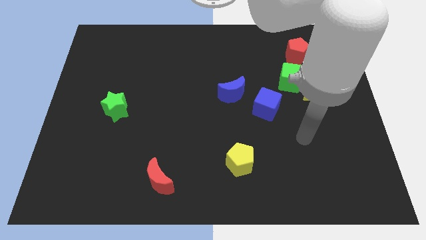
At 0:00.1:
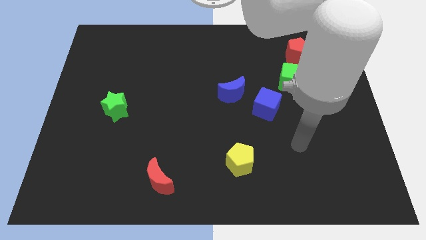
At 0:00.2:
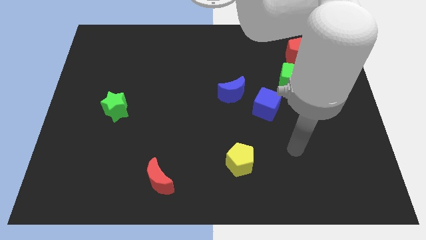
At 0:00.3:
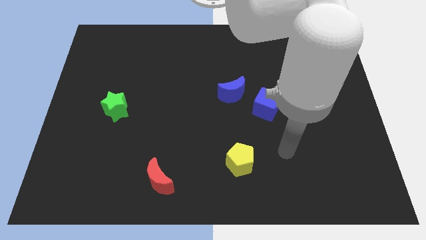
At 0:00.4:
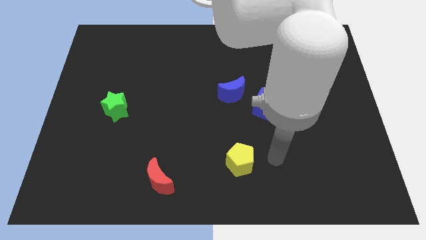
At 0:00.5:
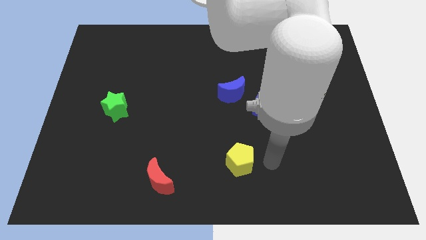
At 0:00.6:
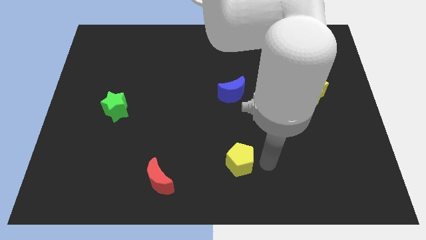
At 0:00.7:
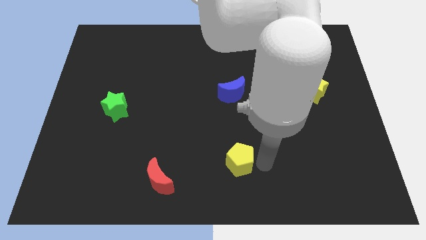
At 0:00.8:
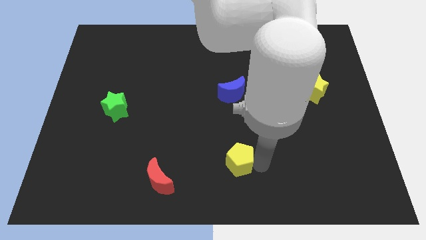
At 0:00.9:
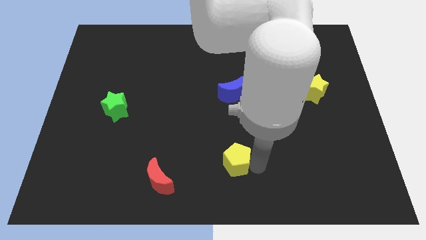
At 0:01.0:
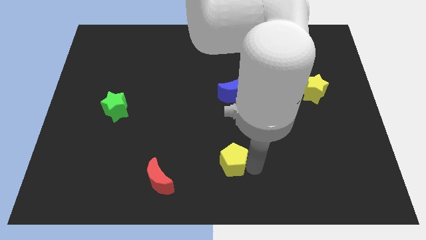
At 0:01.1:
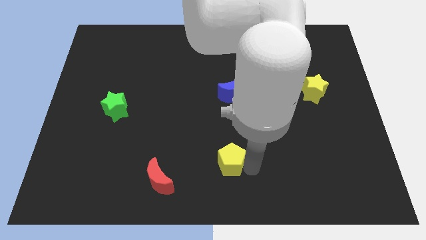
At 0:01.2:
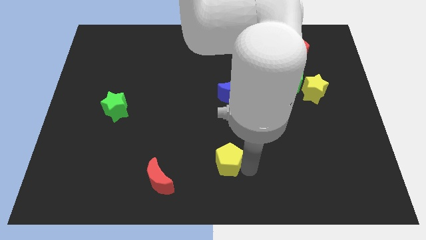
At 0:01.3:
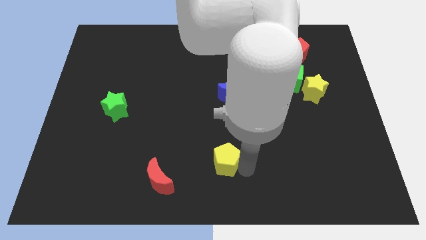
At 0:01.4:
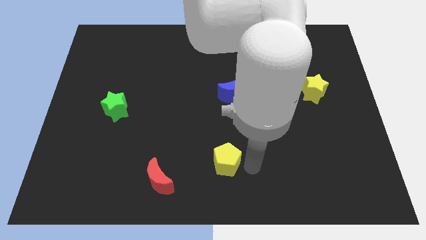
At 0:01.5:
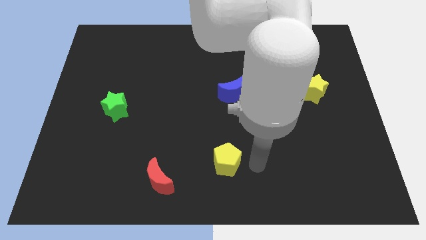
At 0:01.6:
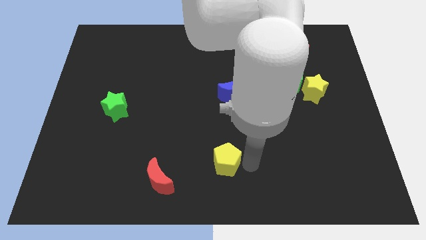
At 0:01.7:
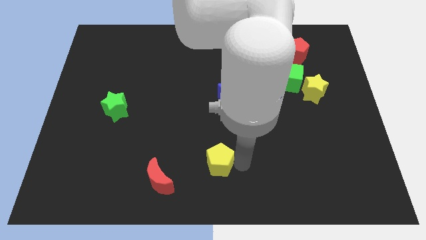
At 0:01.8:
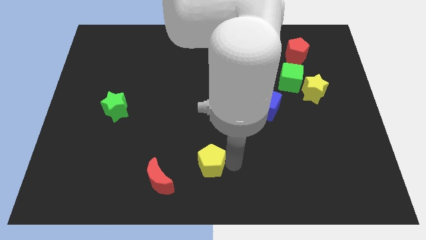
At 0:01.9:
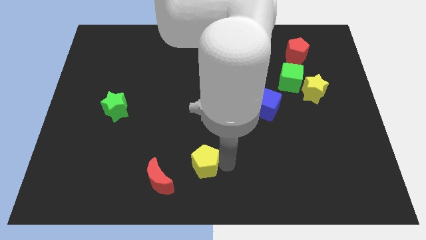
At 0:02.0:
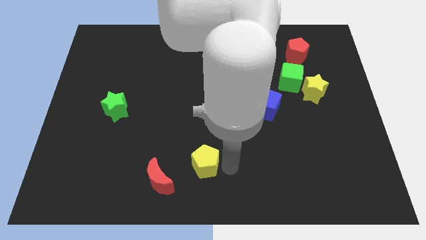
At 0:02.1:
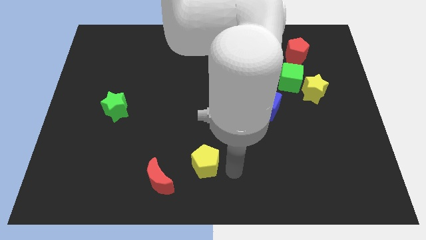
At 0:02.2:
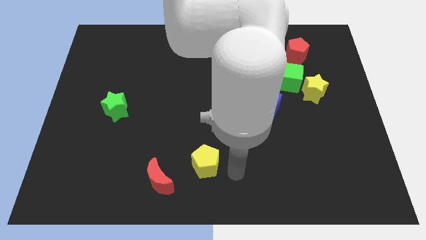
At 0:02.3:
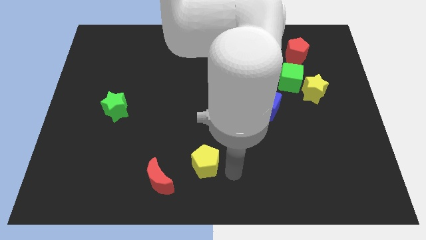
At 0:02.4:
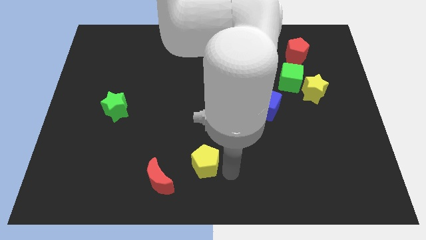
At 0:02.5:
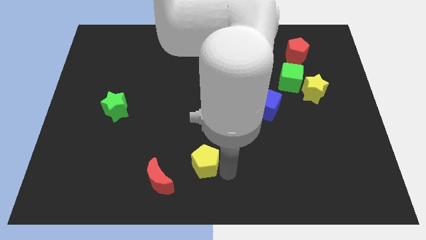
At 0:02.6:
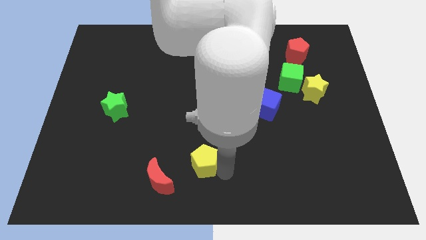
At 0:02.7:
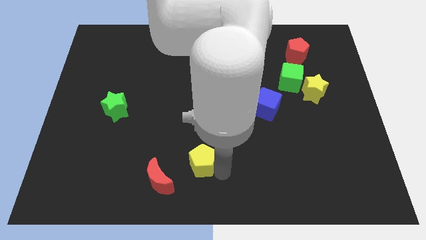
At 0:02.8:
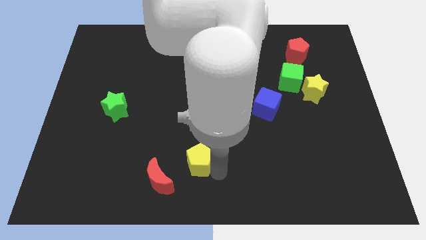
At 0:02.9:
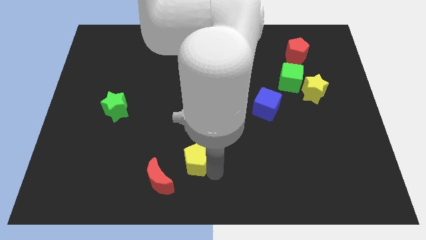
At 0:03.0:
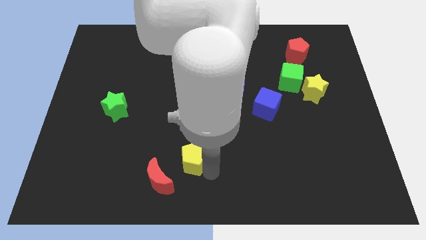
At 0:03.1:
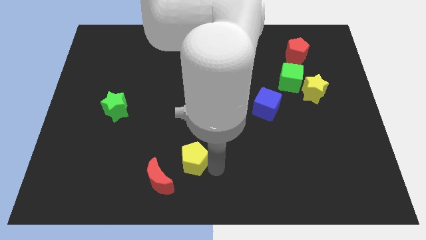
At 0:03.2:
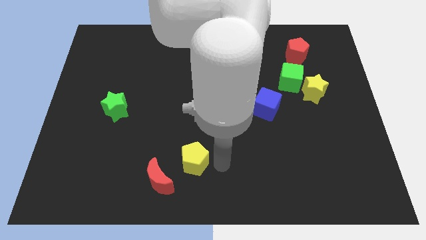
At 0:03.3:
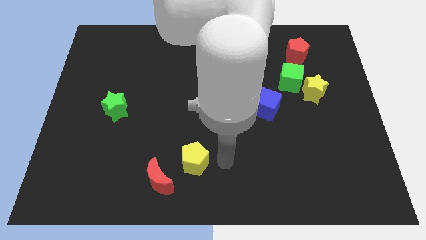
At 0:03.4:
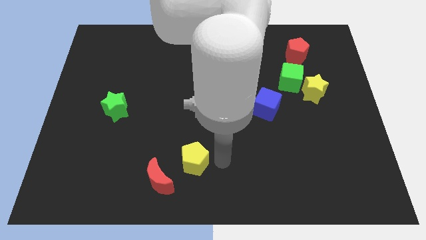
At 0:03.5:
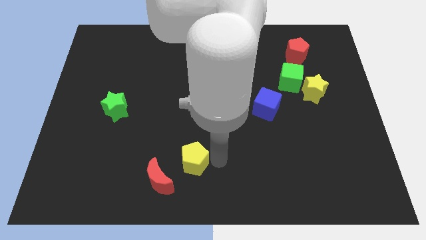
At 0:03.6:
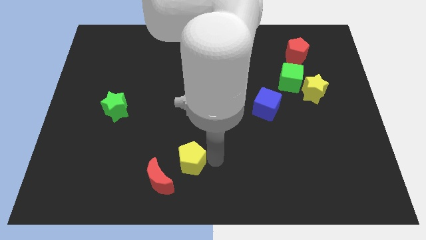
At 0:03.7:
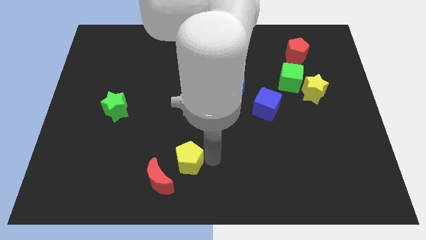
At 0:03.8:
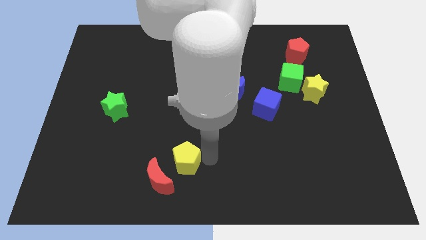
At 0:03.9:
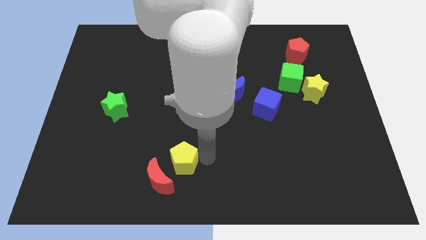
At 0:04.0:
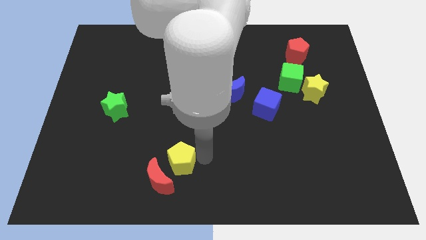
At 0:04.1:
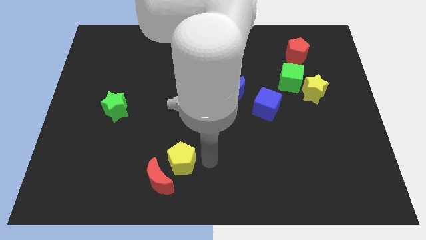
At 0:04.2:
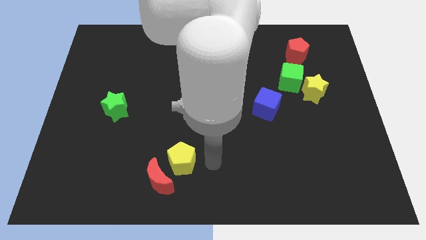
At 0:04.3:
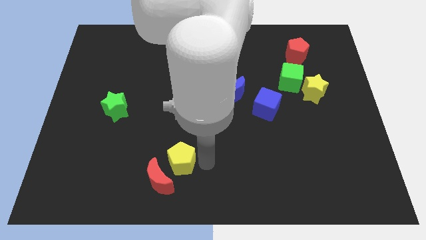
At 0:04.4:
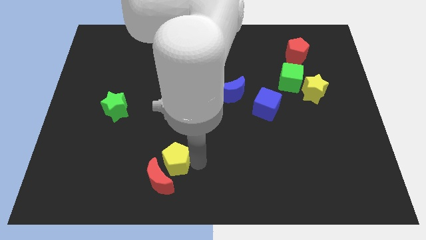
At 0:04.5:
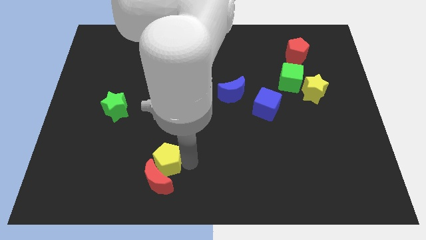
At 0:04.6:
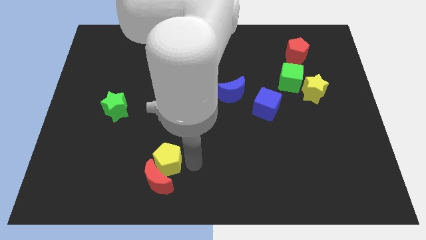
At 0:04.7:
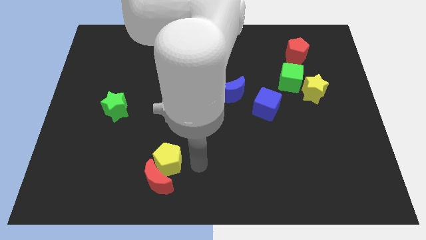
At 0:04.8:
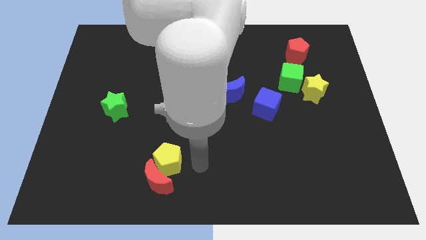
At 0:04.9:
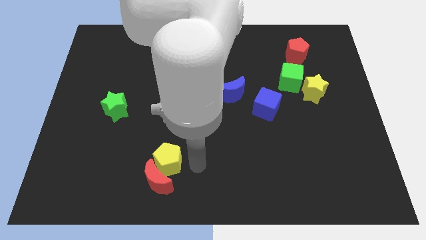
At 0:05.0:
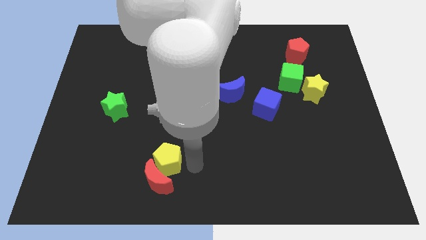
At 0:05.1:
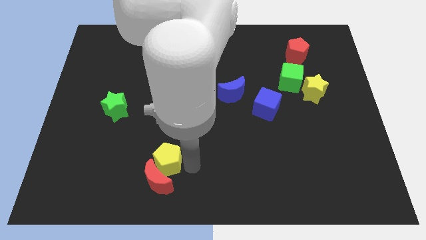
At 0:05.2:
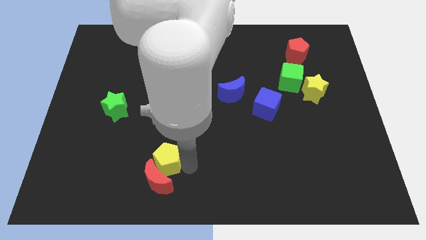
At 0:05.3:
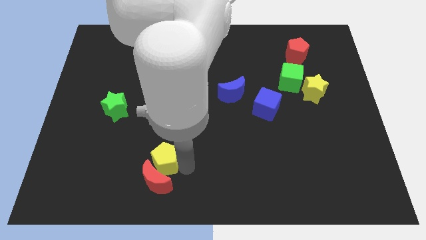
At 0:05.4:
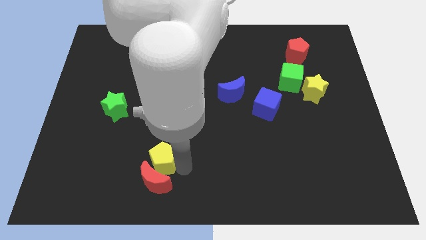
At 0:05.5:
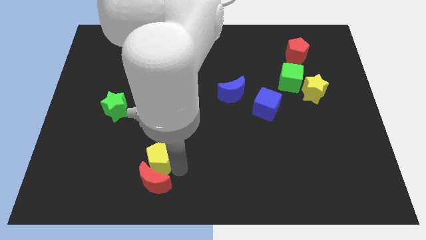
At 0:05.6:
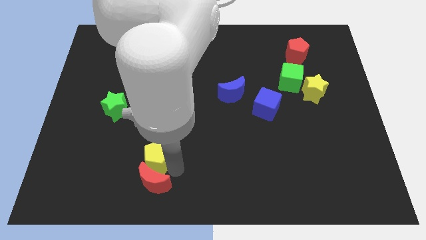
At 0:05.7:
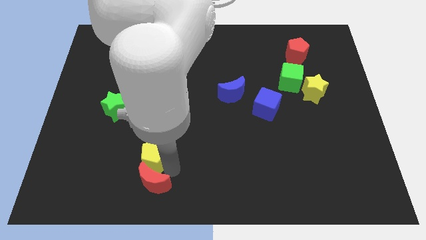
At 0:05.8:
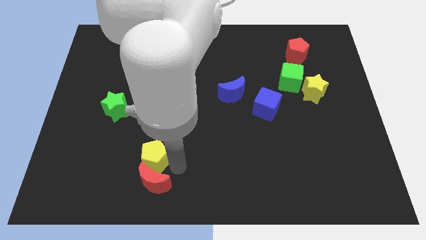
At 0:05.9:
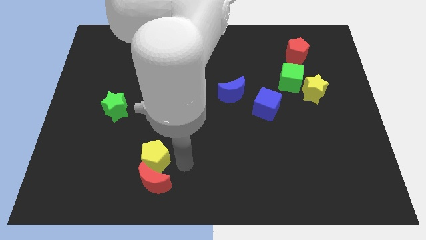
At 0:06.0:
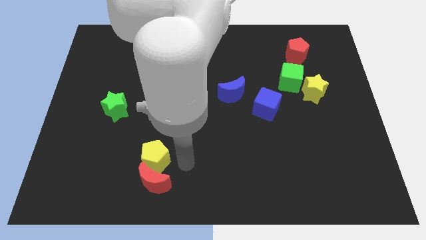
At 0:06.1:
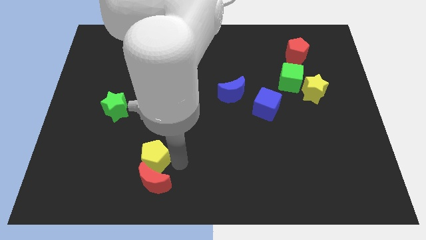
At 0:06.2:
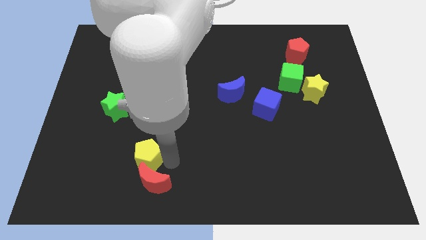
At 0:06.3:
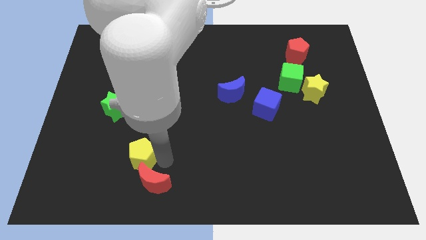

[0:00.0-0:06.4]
push the yellow pentagon to the left

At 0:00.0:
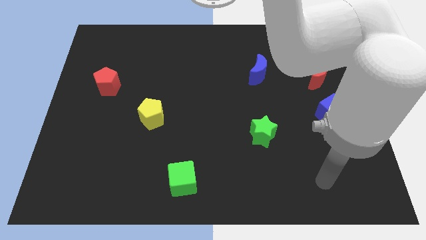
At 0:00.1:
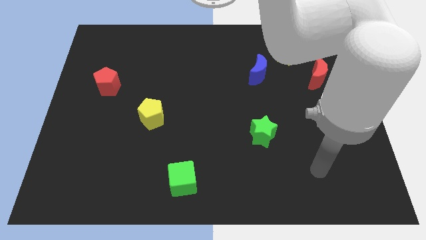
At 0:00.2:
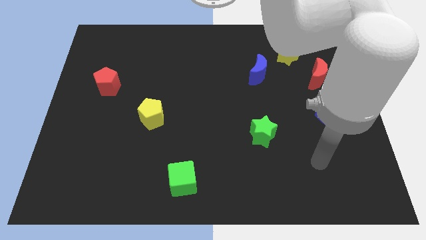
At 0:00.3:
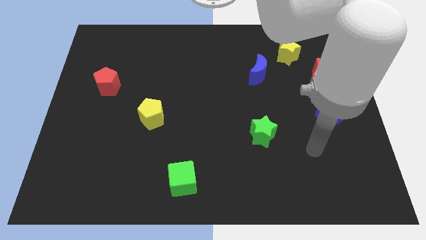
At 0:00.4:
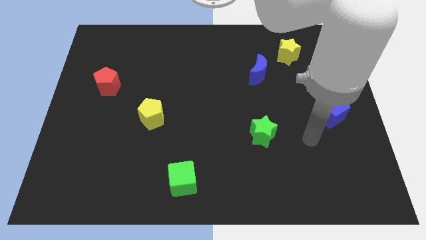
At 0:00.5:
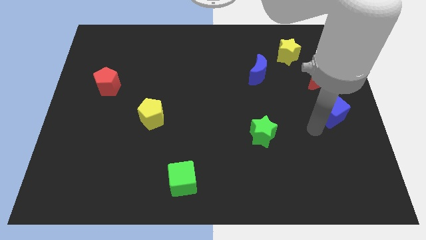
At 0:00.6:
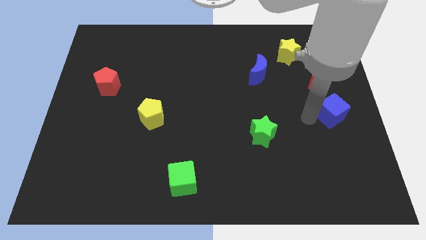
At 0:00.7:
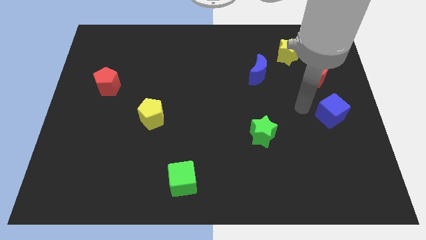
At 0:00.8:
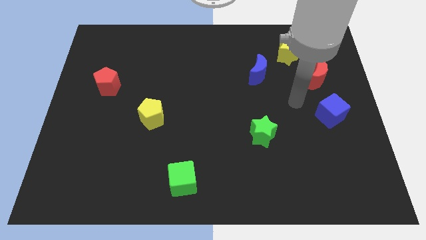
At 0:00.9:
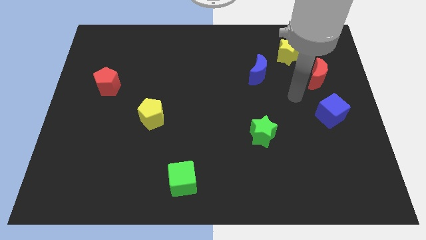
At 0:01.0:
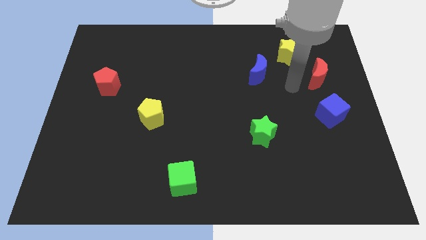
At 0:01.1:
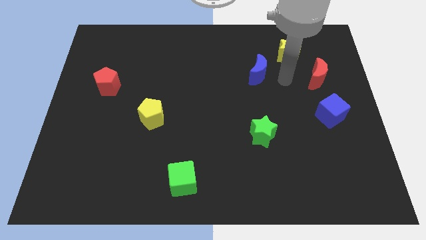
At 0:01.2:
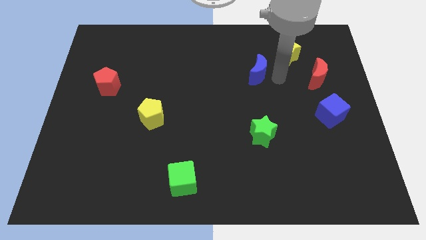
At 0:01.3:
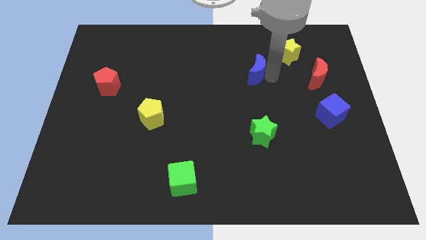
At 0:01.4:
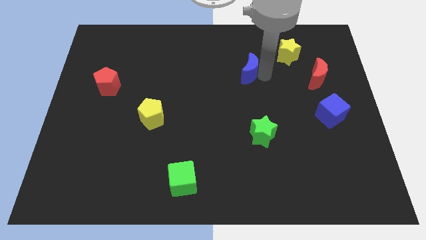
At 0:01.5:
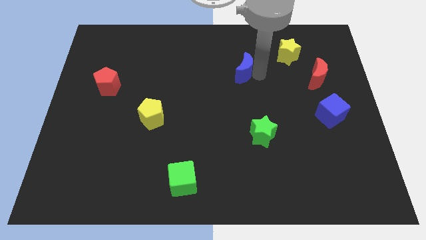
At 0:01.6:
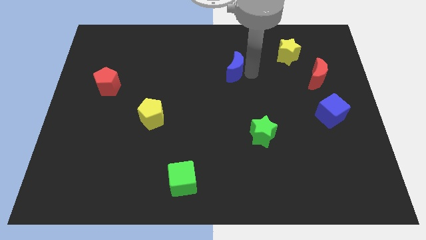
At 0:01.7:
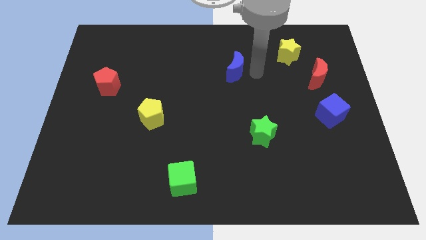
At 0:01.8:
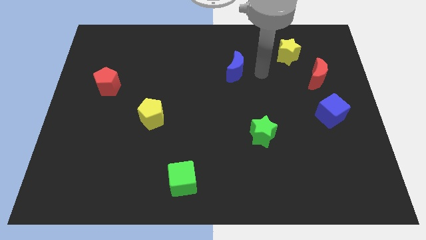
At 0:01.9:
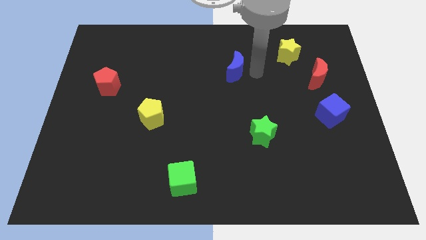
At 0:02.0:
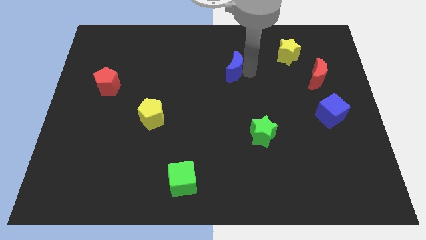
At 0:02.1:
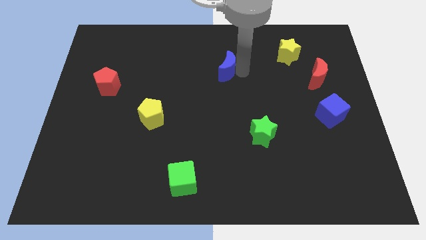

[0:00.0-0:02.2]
move the blue moon somewhat left
